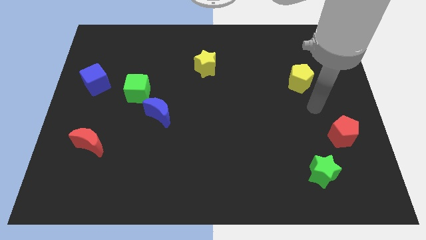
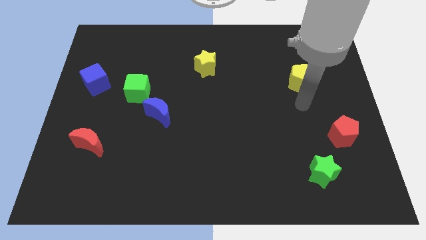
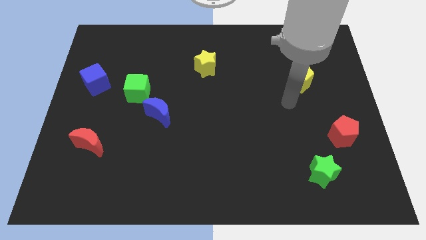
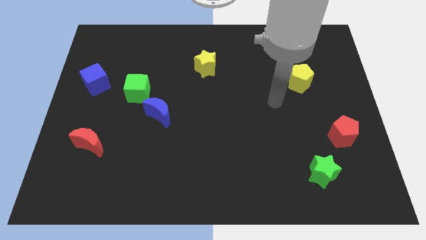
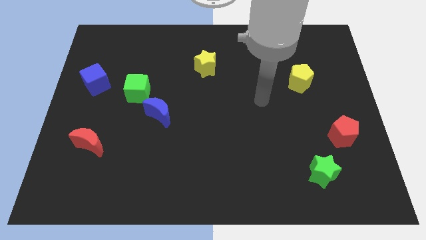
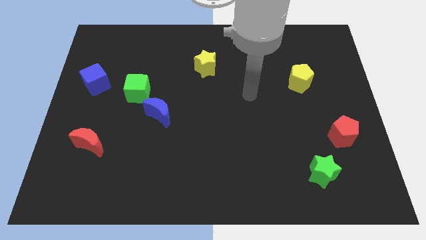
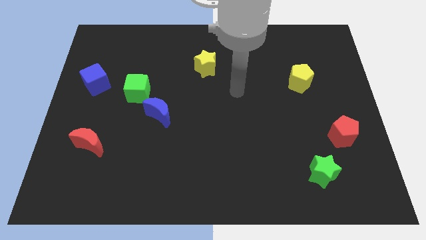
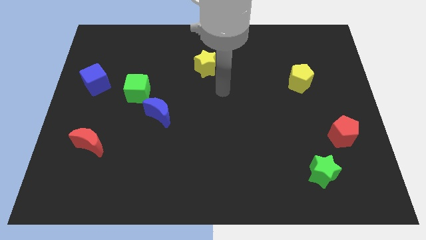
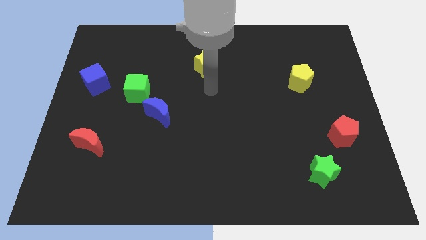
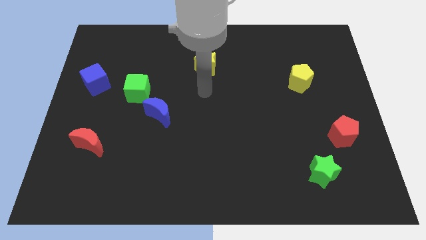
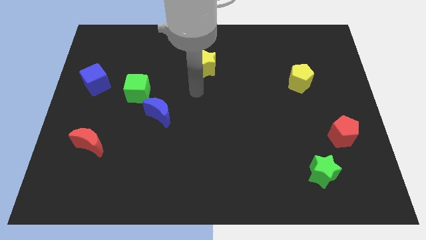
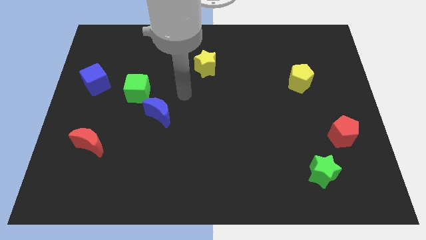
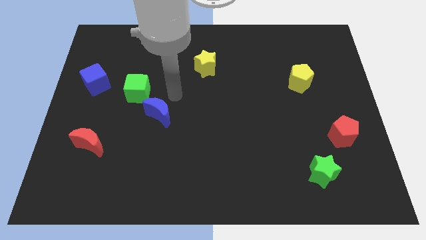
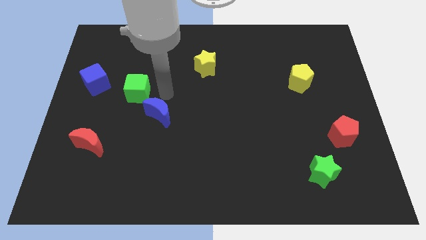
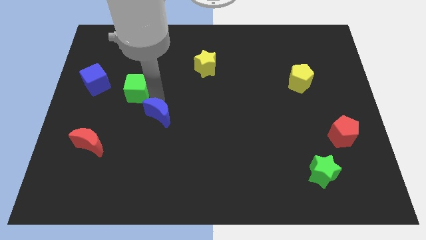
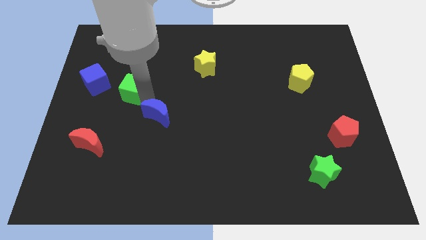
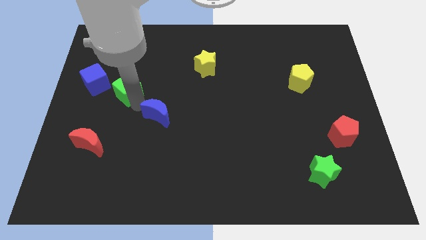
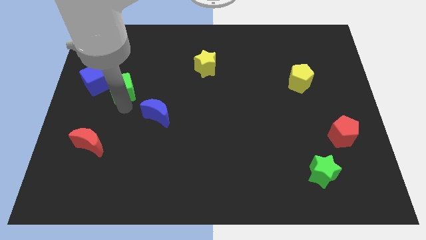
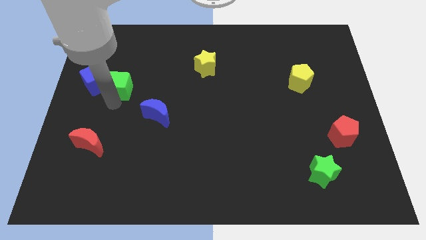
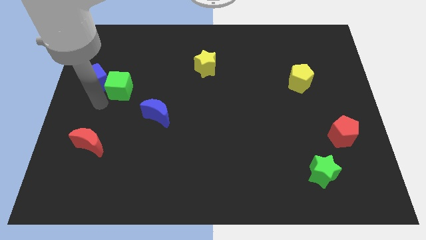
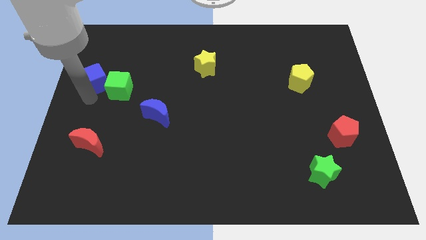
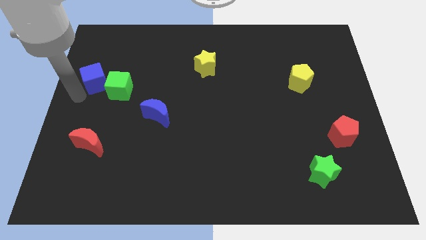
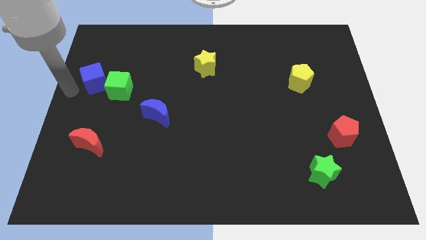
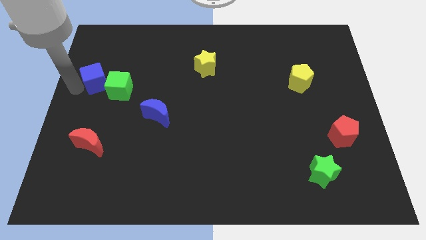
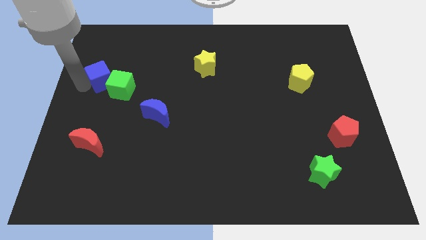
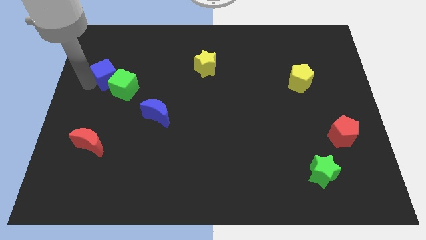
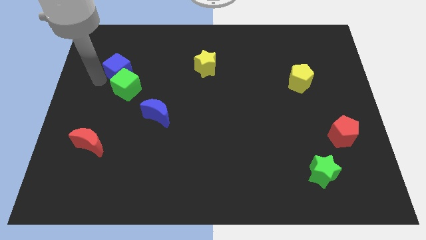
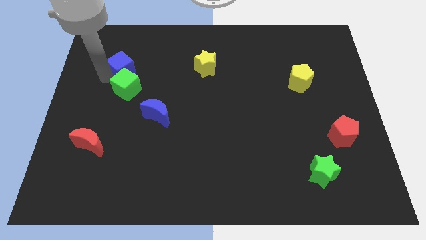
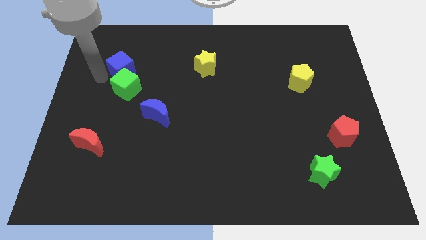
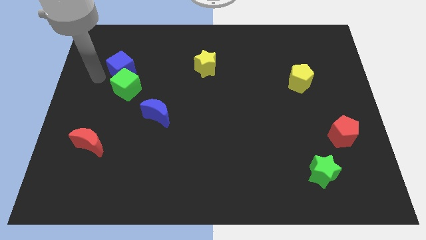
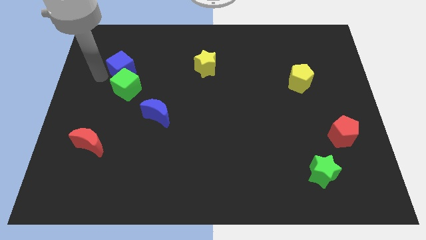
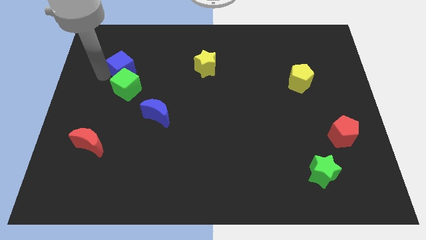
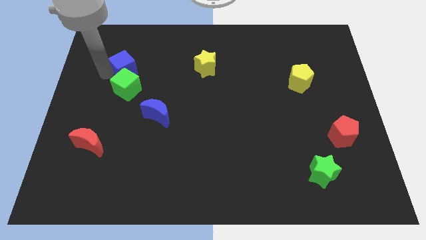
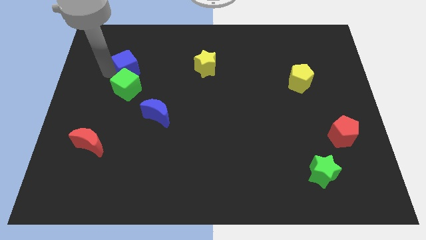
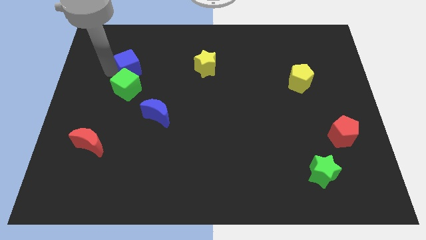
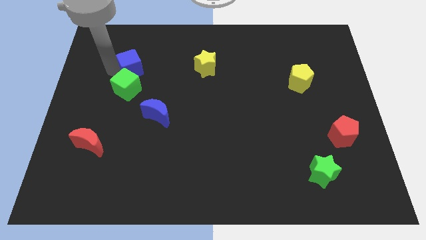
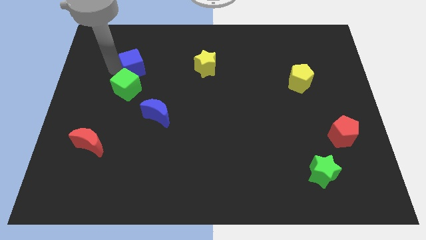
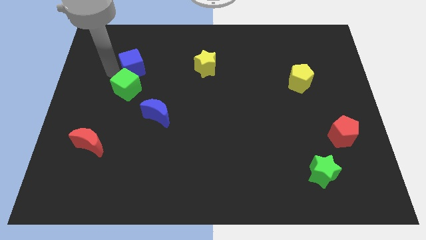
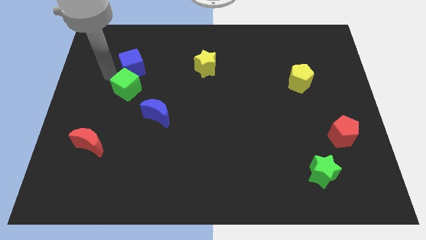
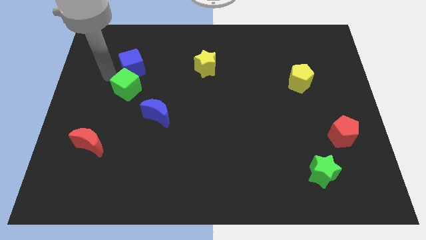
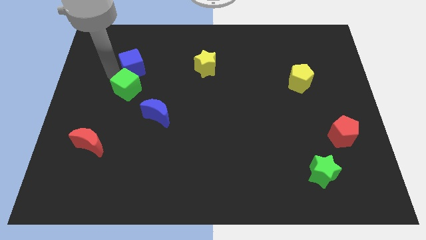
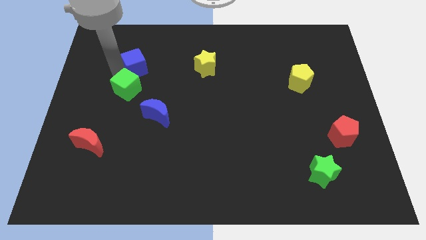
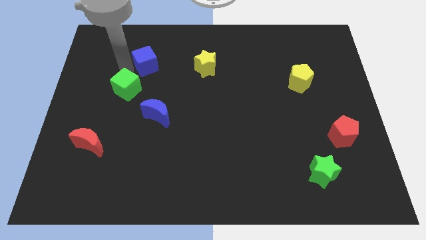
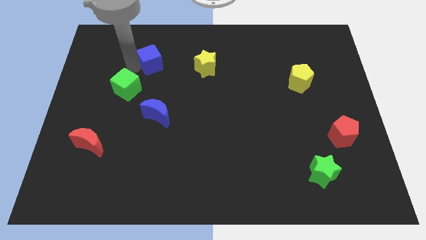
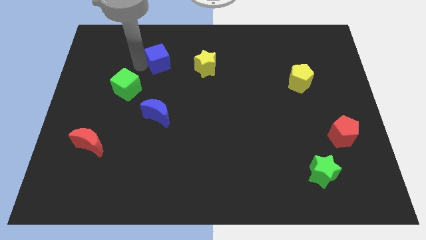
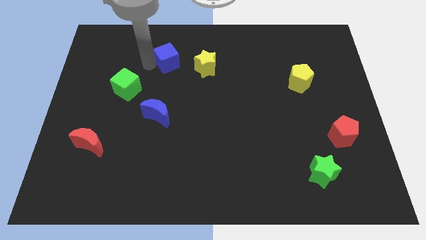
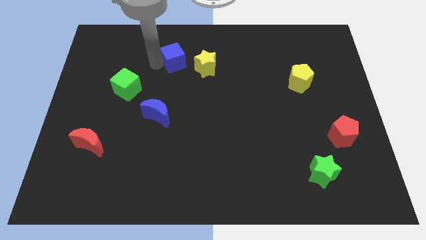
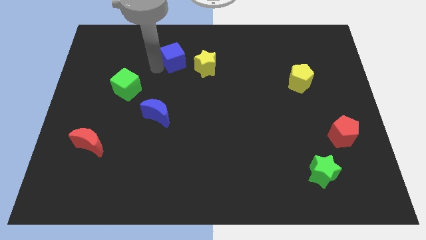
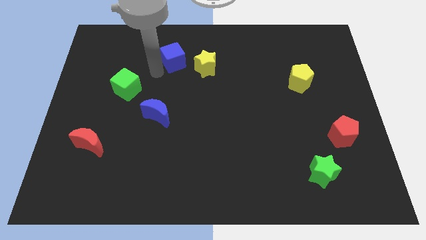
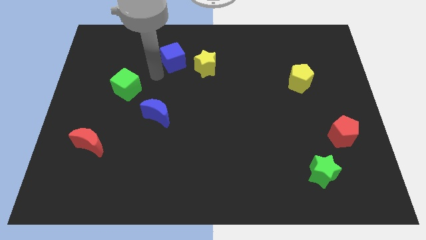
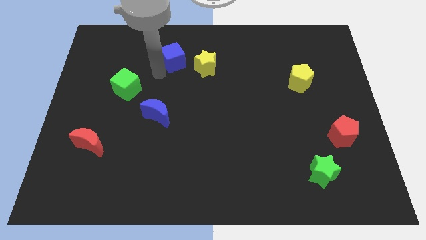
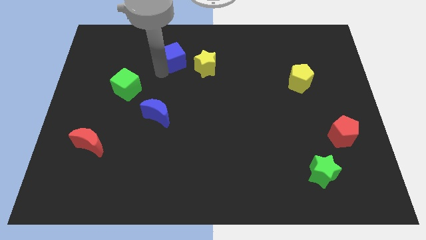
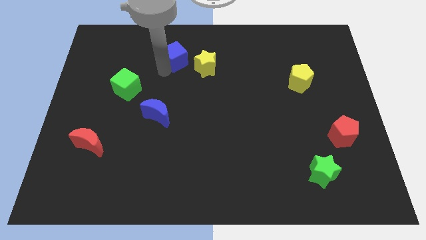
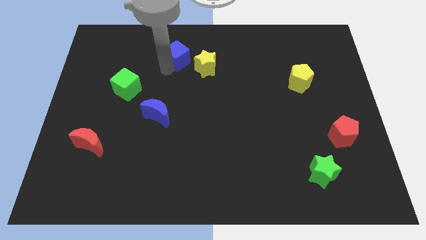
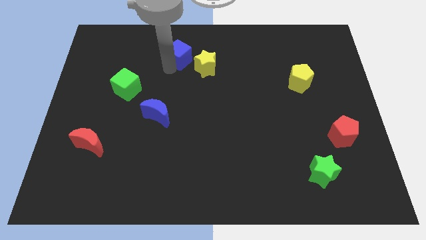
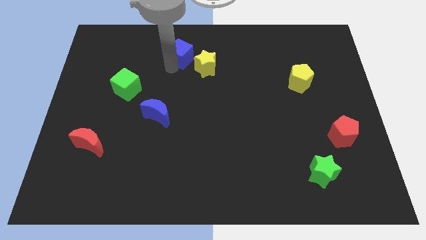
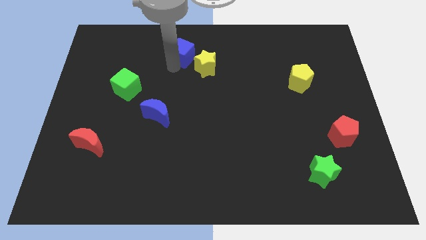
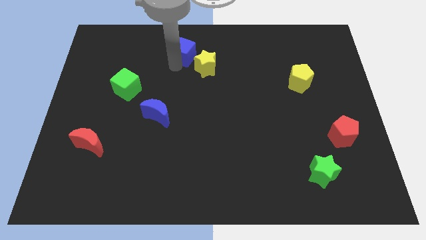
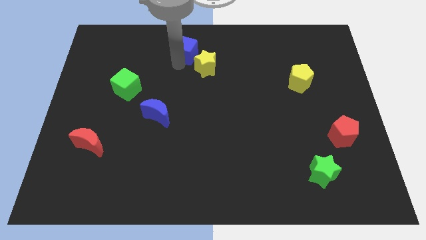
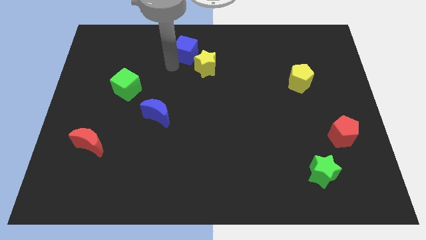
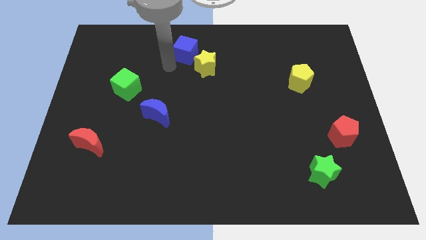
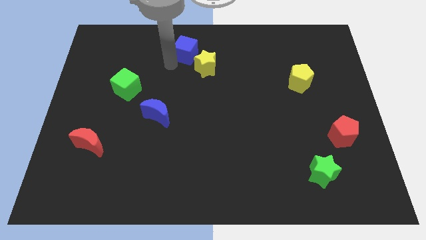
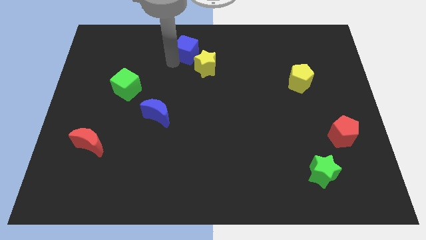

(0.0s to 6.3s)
put the blue cube to the top side

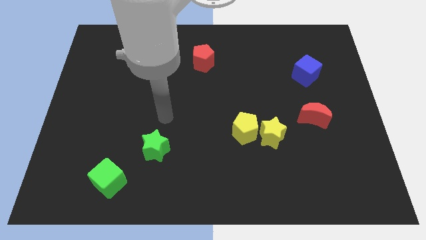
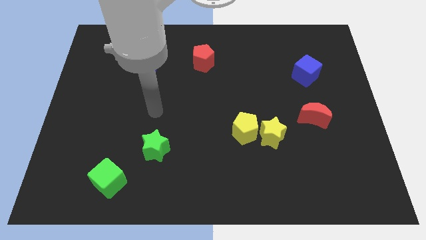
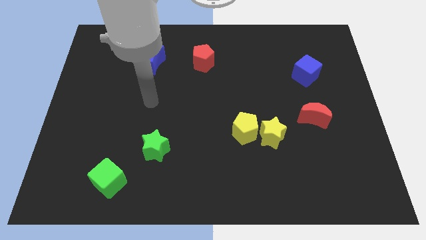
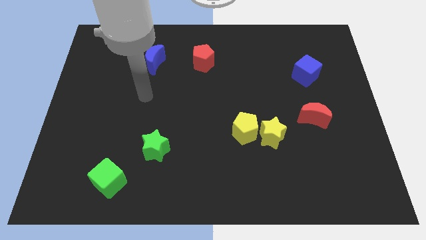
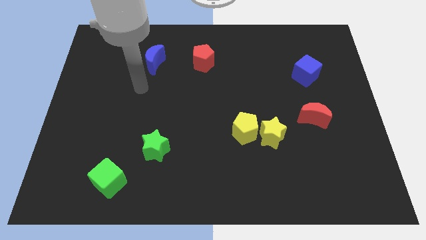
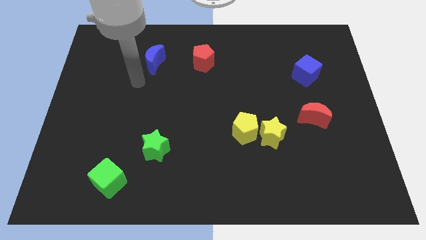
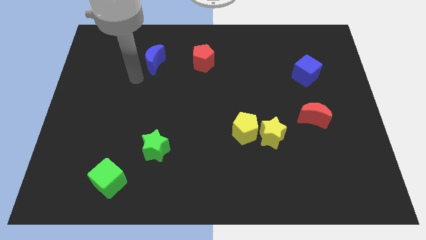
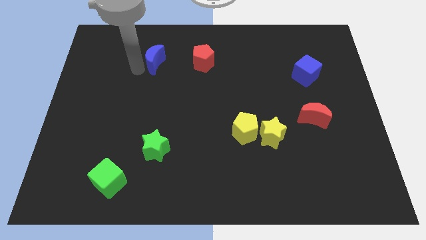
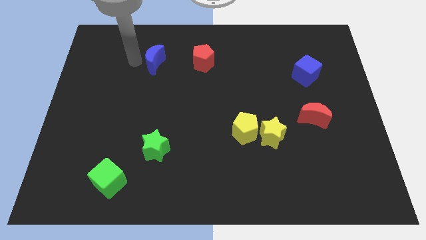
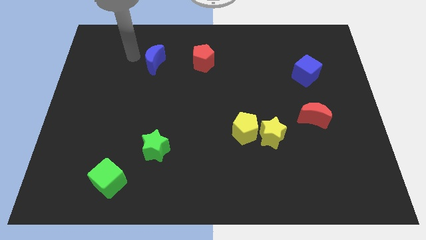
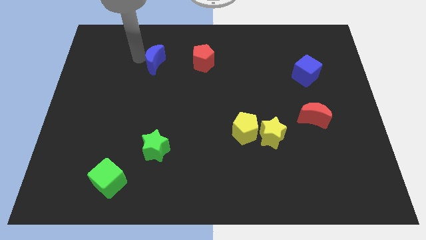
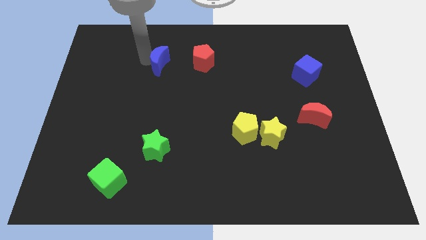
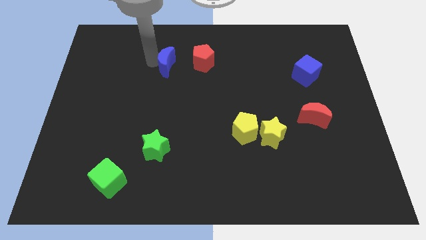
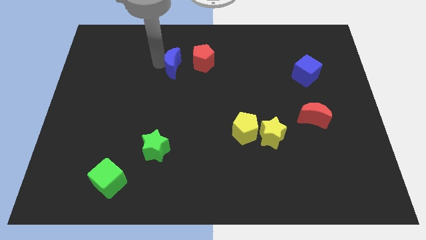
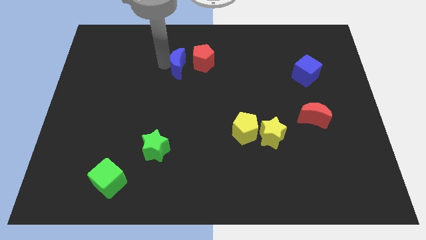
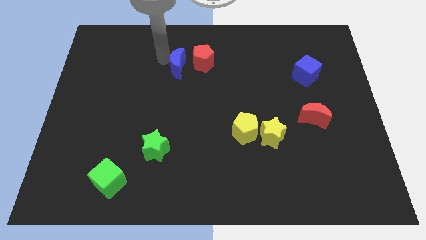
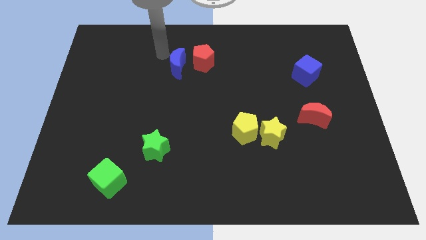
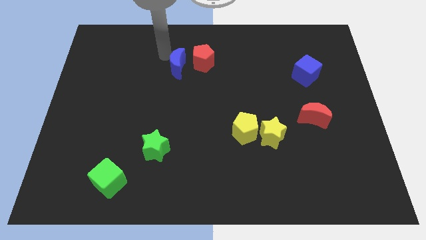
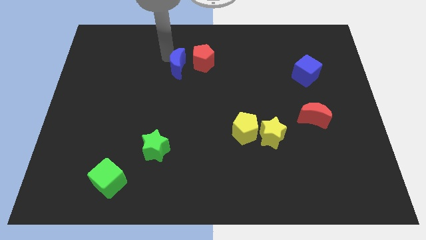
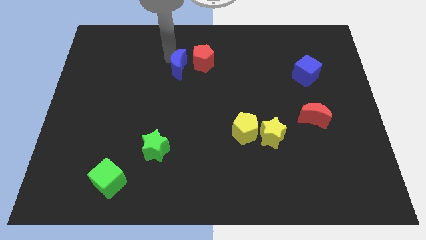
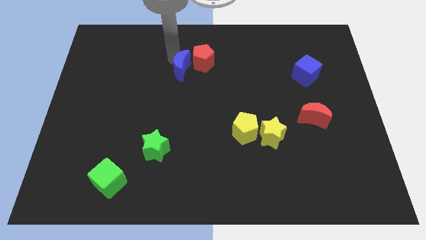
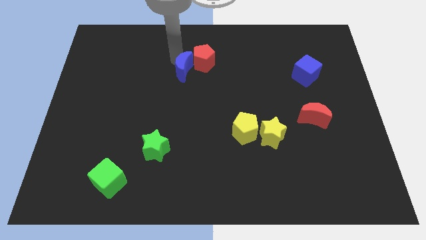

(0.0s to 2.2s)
slide the blue moon to the center
